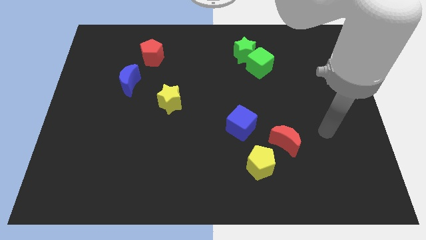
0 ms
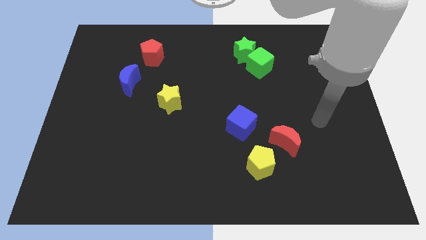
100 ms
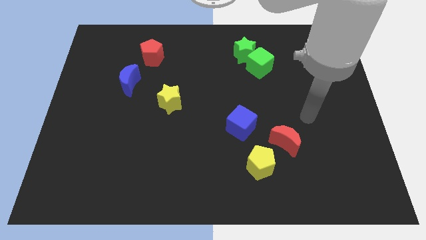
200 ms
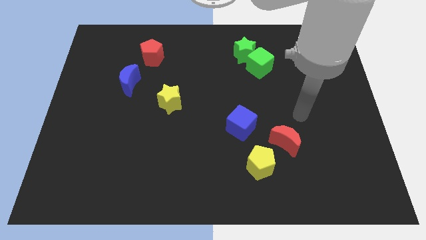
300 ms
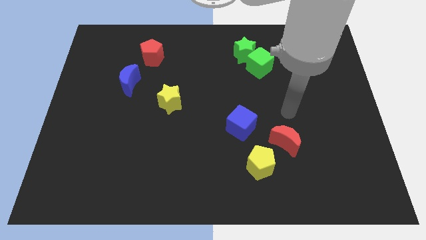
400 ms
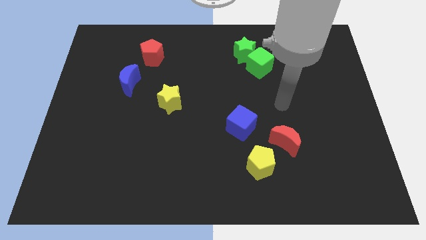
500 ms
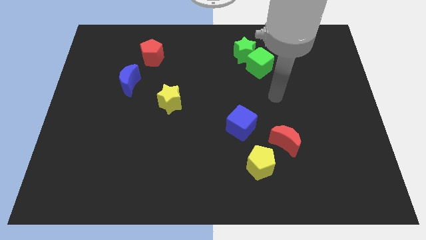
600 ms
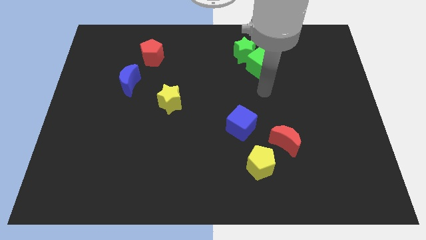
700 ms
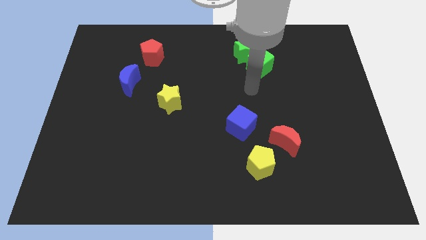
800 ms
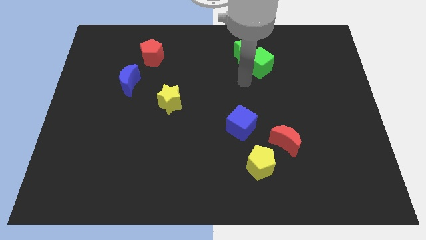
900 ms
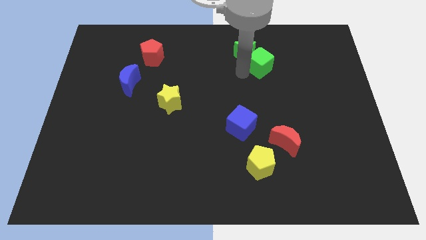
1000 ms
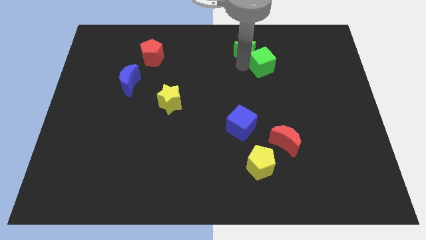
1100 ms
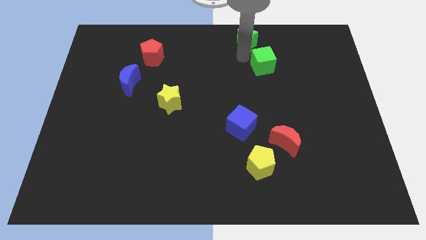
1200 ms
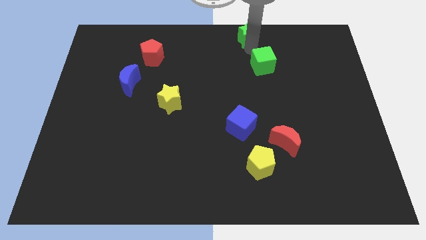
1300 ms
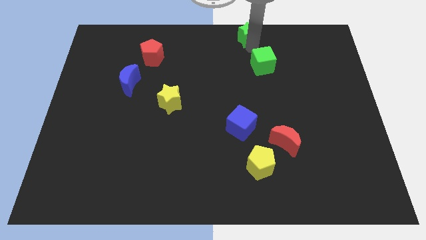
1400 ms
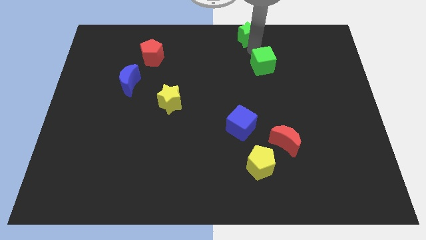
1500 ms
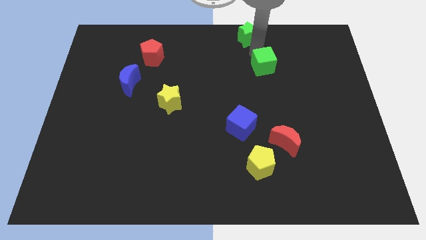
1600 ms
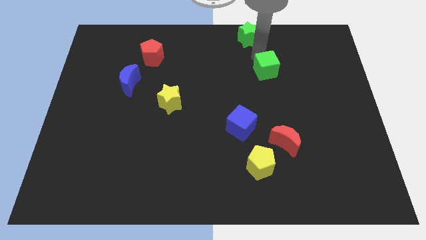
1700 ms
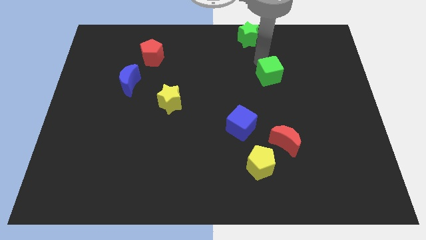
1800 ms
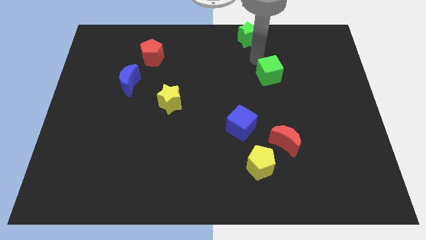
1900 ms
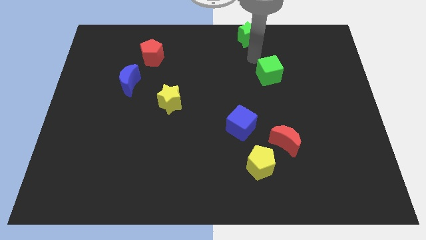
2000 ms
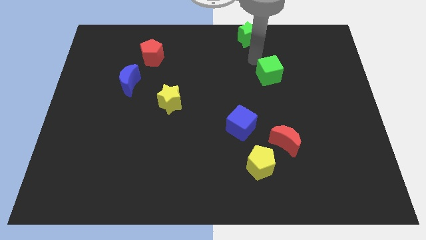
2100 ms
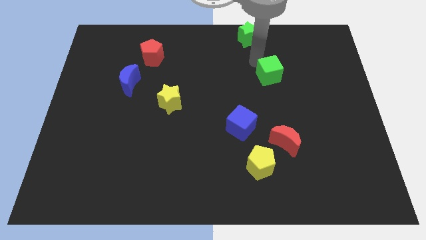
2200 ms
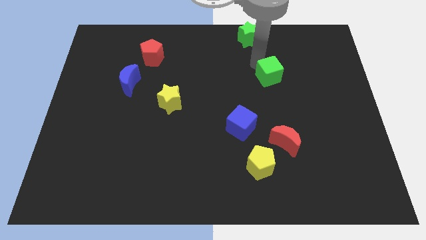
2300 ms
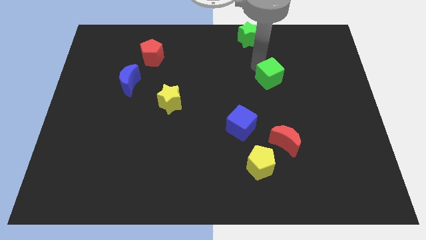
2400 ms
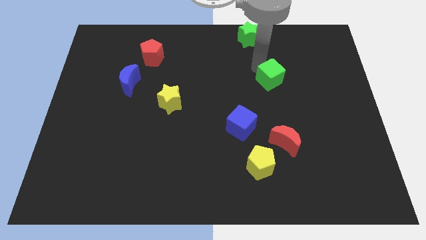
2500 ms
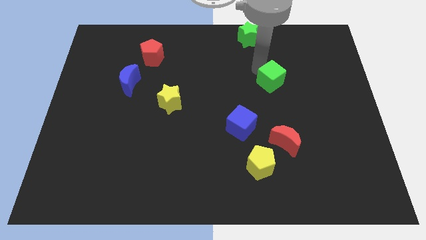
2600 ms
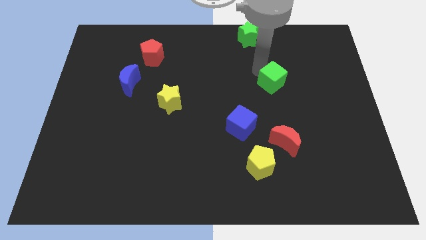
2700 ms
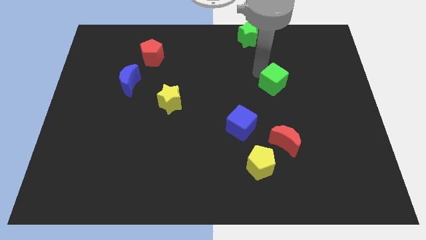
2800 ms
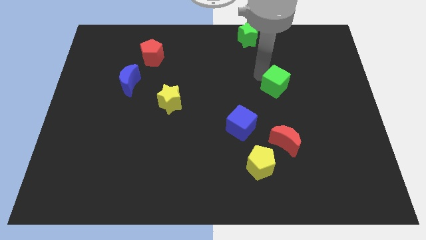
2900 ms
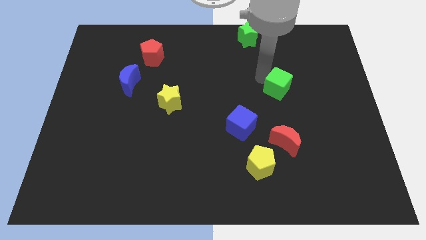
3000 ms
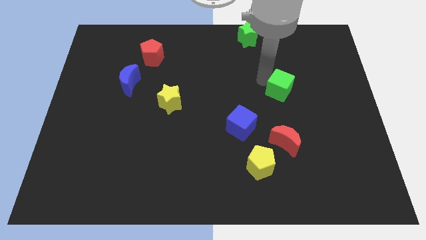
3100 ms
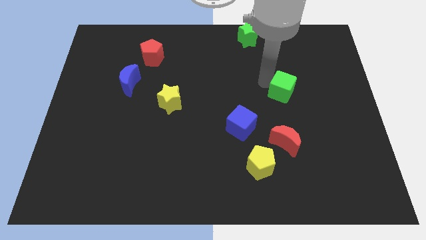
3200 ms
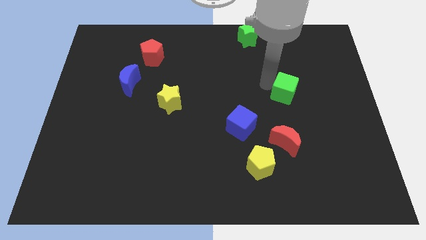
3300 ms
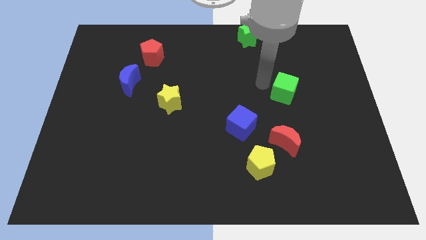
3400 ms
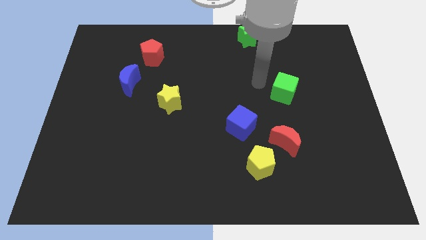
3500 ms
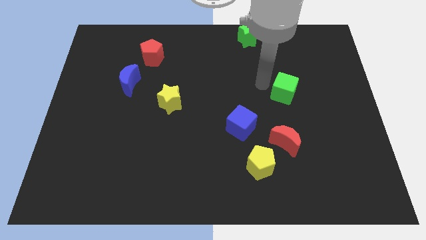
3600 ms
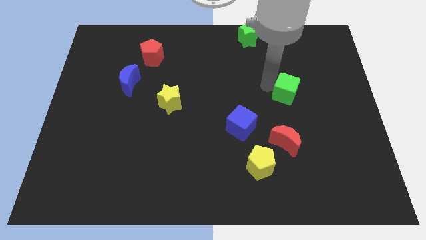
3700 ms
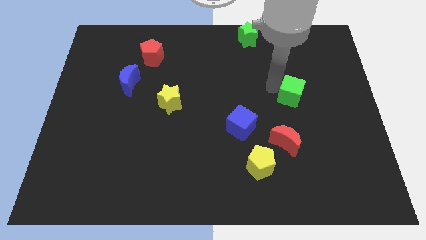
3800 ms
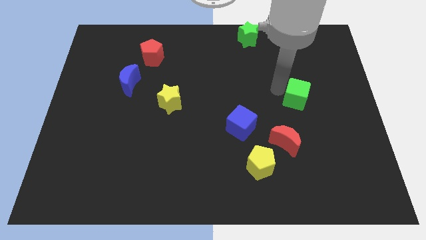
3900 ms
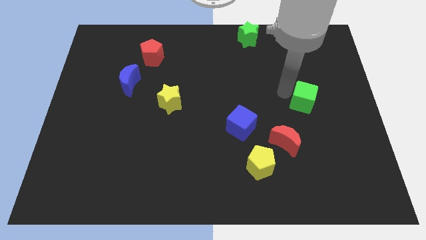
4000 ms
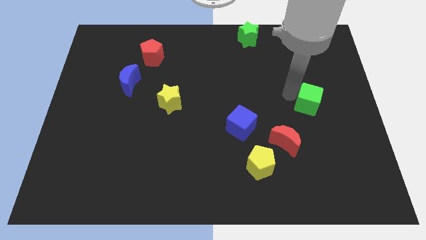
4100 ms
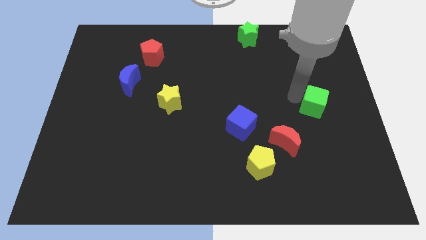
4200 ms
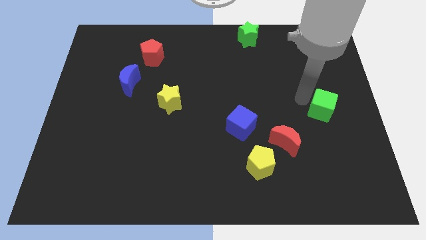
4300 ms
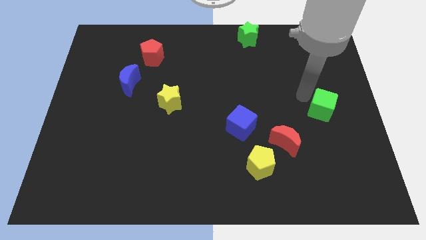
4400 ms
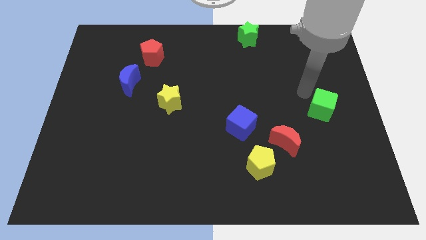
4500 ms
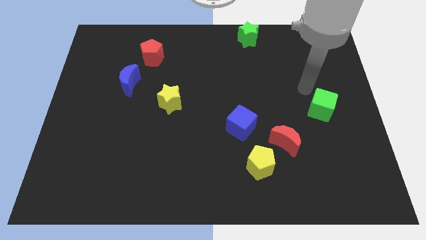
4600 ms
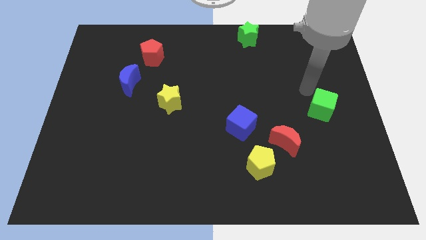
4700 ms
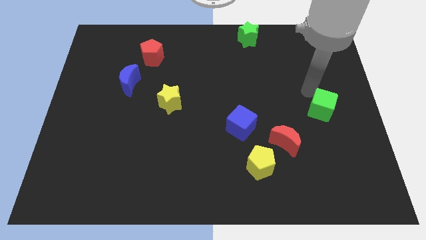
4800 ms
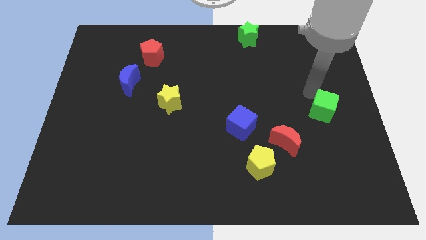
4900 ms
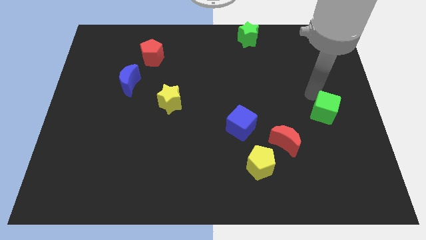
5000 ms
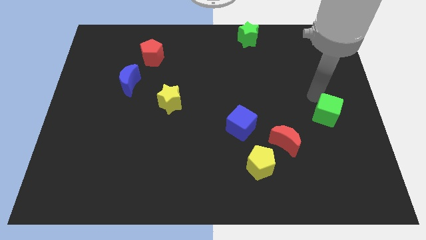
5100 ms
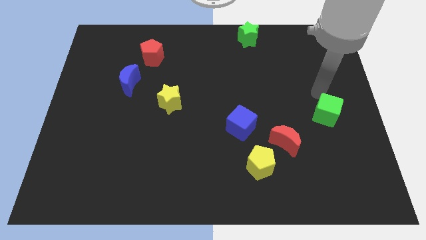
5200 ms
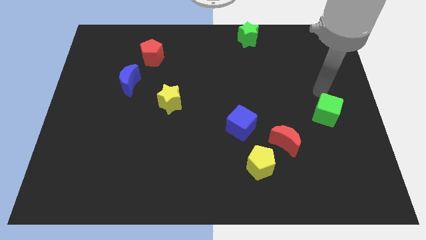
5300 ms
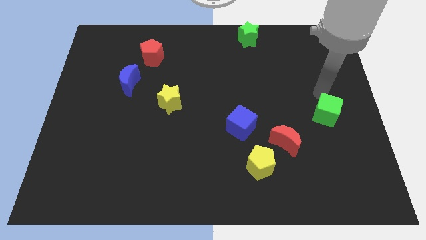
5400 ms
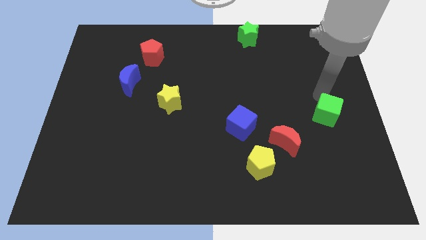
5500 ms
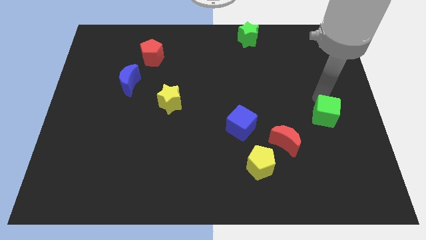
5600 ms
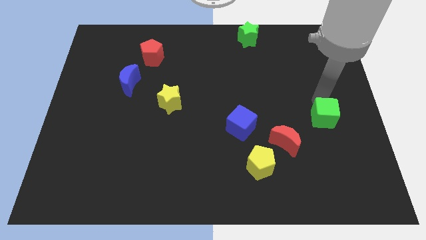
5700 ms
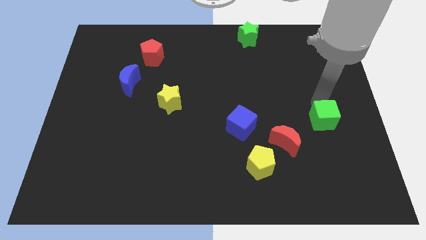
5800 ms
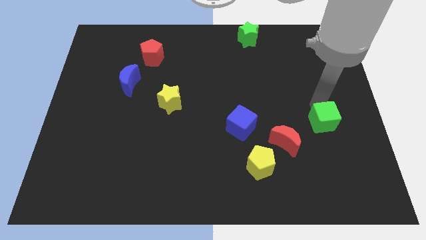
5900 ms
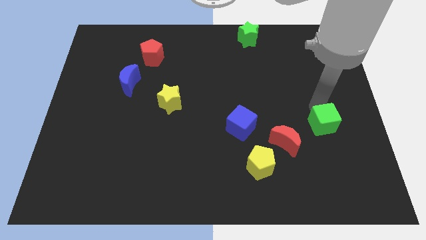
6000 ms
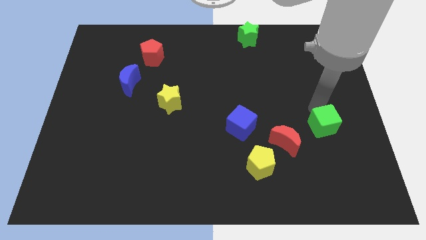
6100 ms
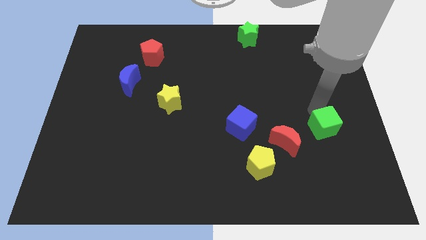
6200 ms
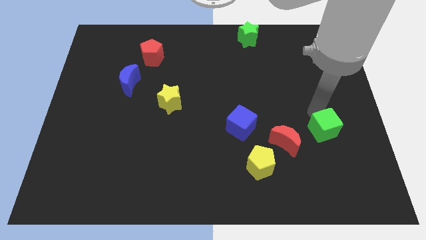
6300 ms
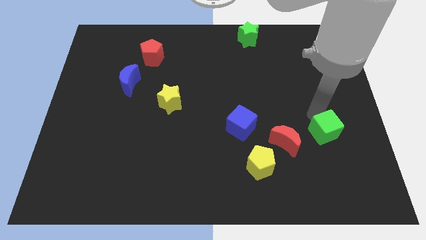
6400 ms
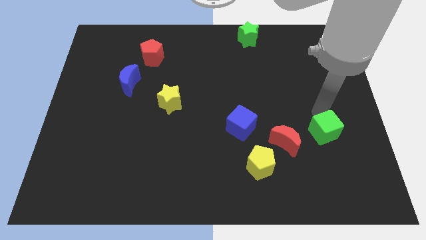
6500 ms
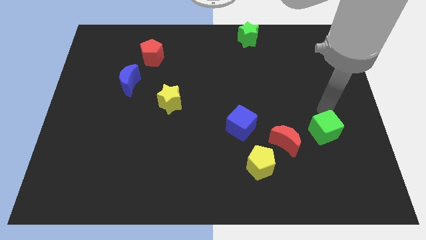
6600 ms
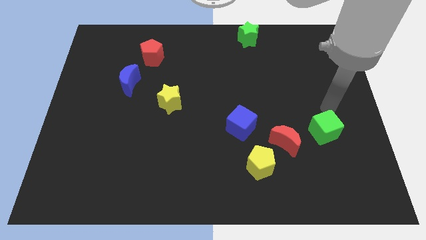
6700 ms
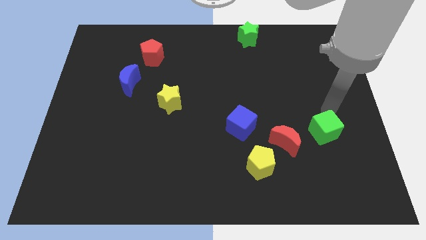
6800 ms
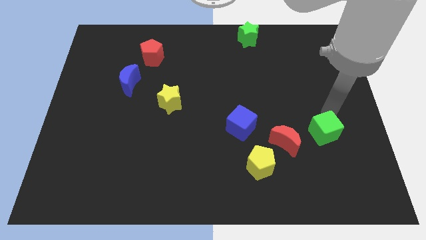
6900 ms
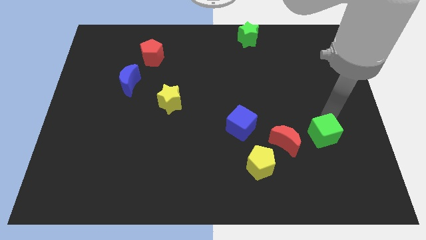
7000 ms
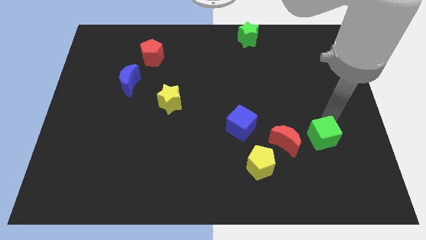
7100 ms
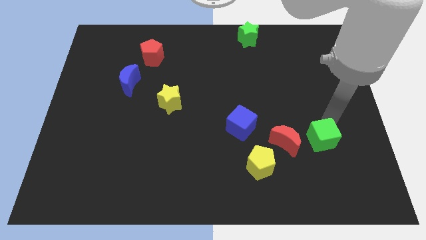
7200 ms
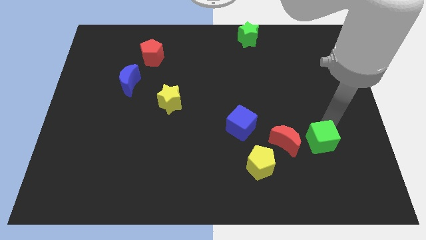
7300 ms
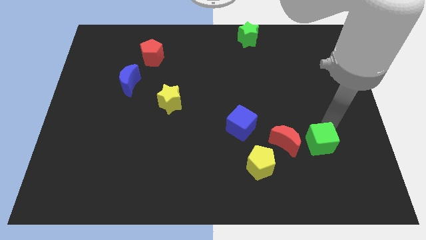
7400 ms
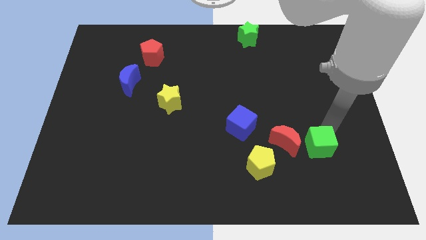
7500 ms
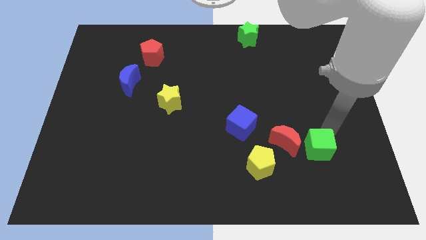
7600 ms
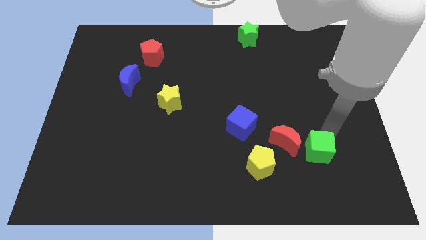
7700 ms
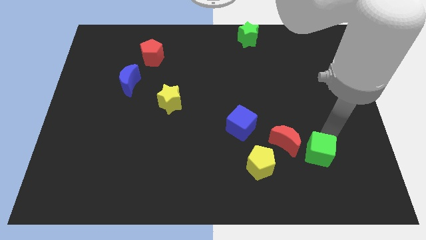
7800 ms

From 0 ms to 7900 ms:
push the green cube downwards
